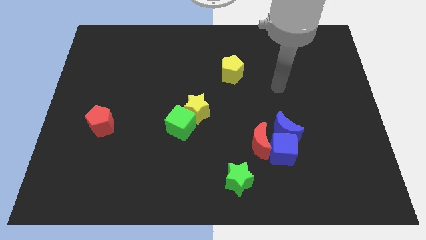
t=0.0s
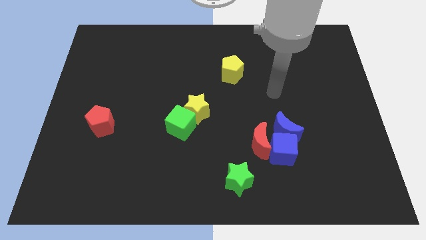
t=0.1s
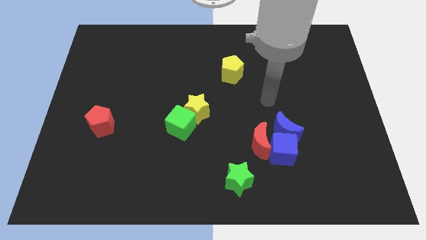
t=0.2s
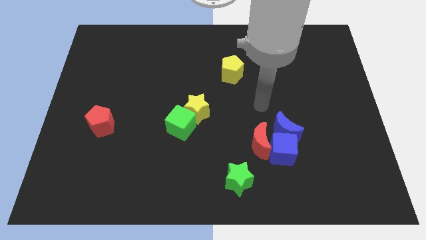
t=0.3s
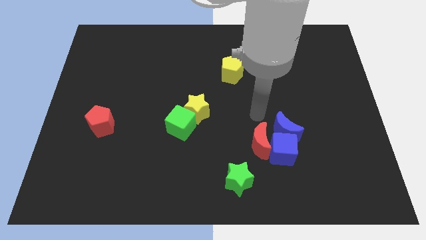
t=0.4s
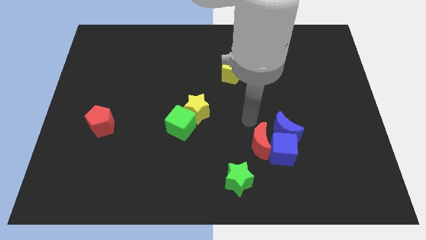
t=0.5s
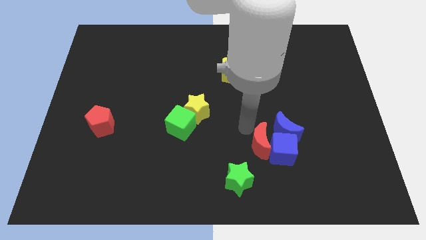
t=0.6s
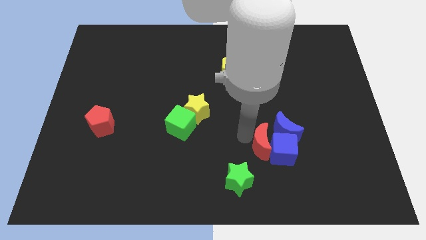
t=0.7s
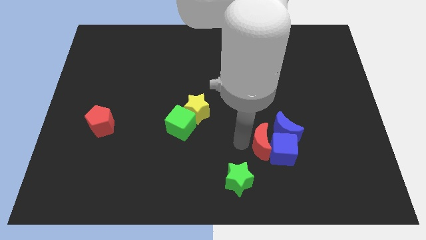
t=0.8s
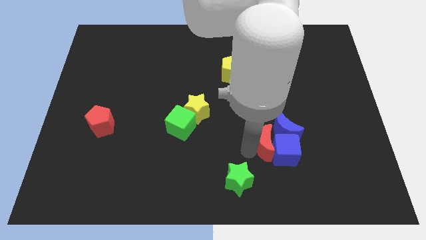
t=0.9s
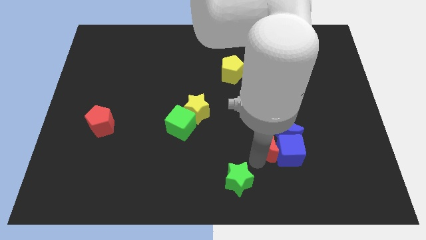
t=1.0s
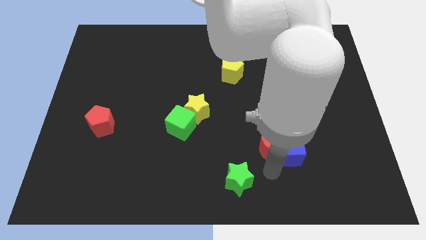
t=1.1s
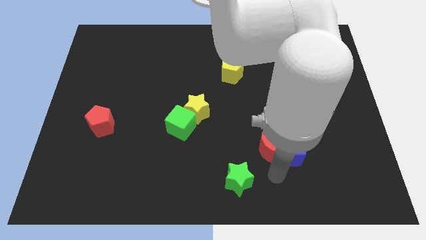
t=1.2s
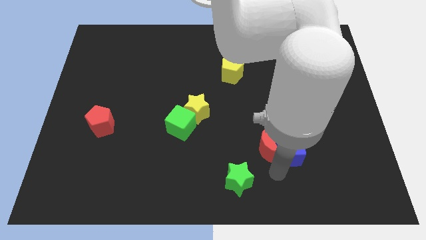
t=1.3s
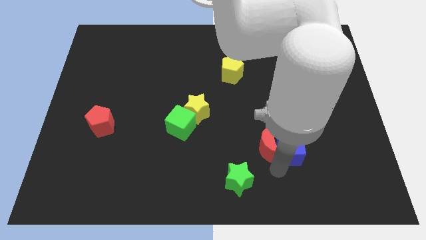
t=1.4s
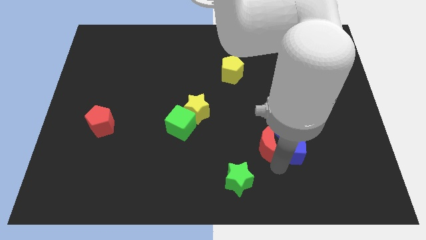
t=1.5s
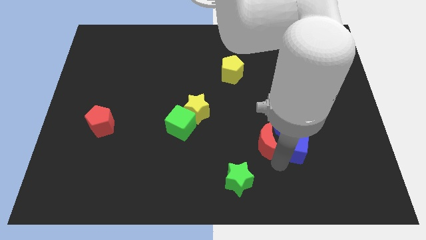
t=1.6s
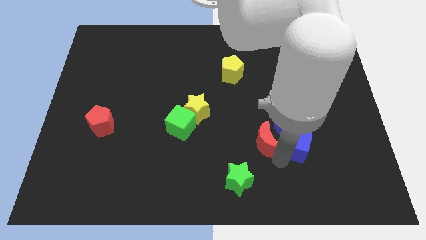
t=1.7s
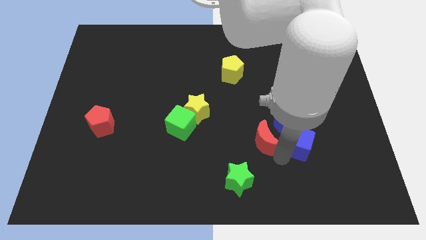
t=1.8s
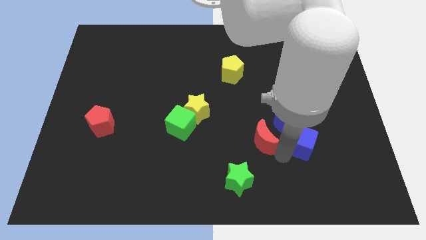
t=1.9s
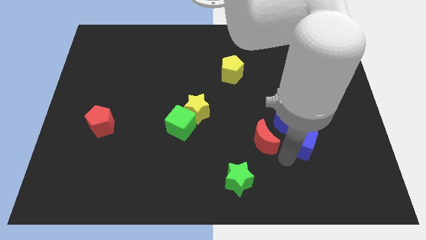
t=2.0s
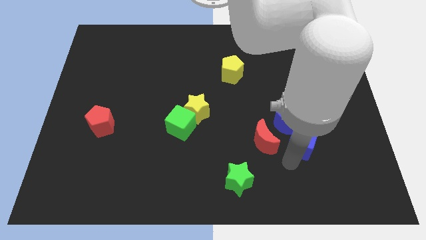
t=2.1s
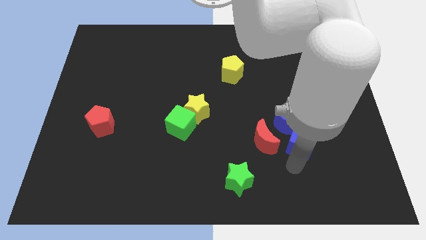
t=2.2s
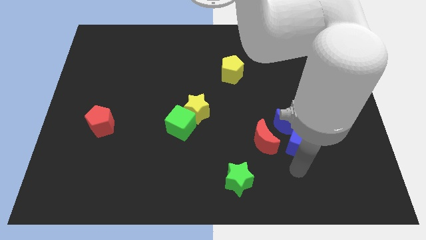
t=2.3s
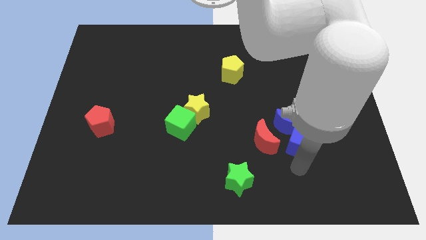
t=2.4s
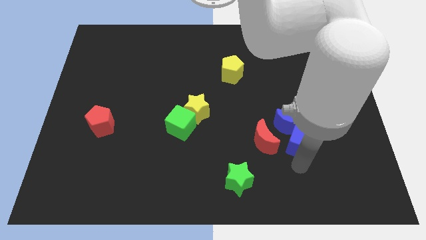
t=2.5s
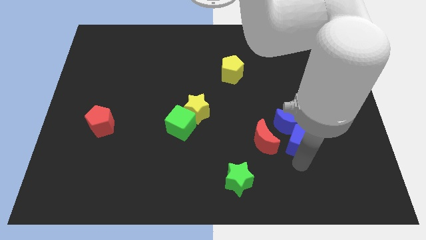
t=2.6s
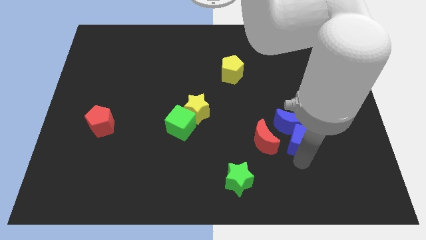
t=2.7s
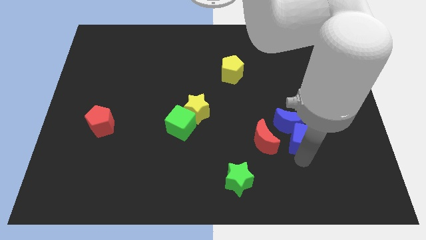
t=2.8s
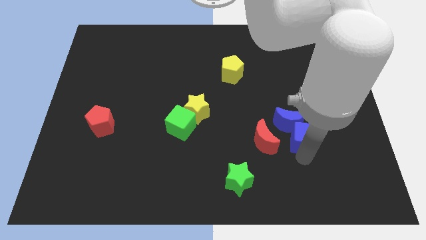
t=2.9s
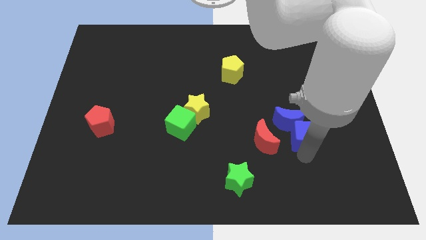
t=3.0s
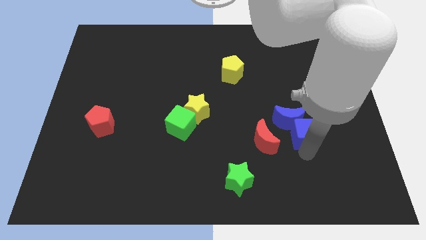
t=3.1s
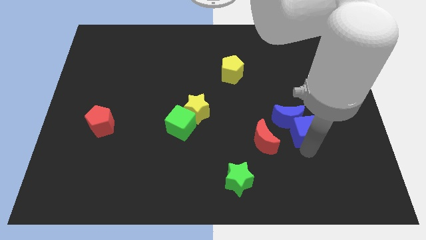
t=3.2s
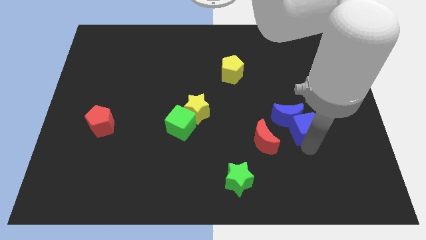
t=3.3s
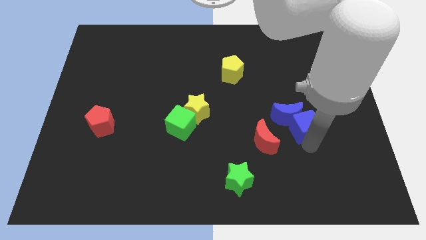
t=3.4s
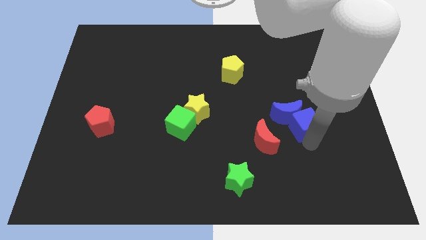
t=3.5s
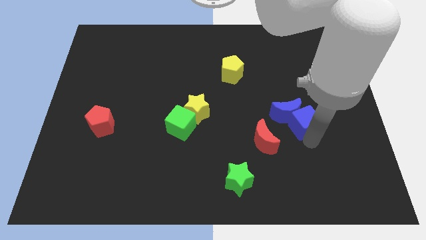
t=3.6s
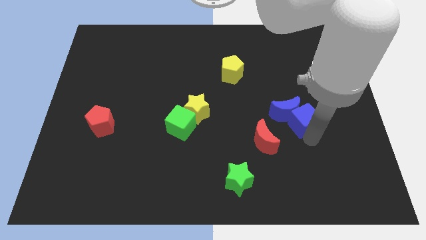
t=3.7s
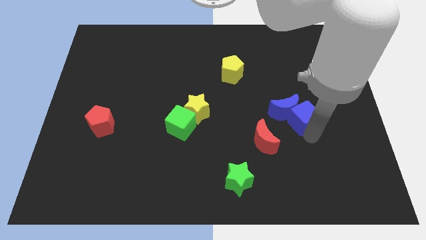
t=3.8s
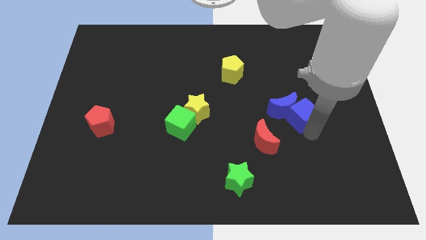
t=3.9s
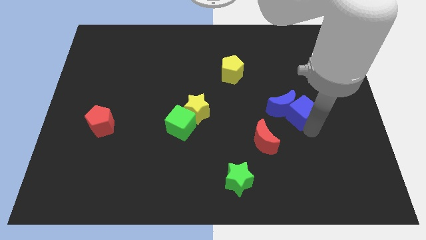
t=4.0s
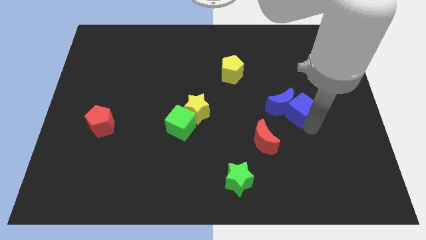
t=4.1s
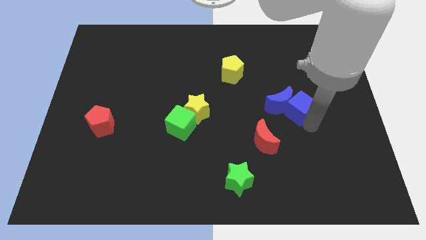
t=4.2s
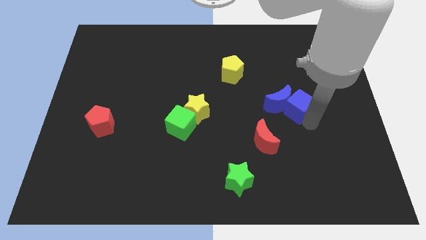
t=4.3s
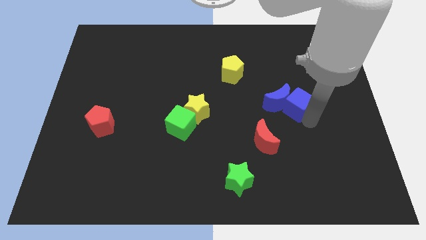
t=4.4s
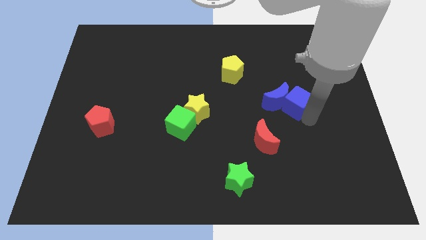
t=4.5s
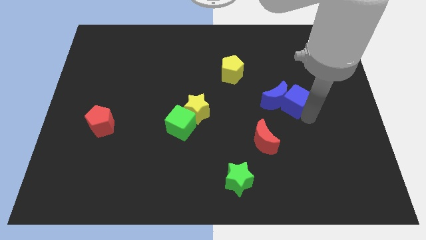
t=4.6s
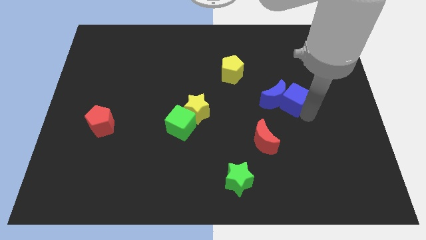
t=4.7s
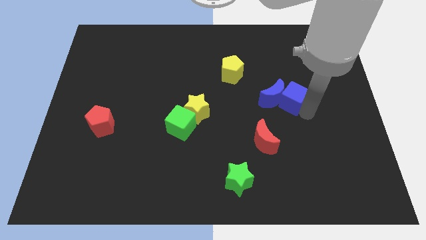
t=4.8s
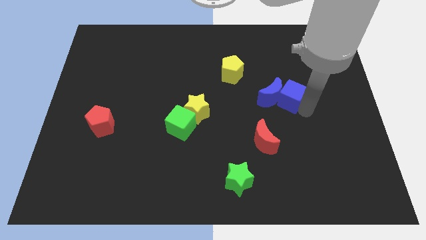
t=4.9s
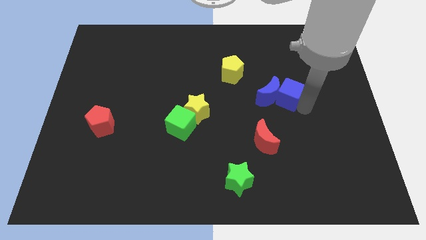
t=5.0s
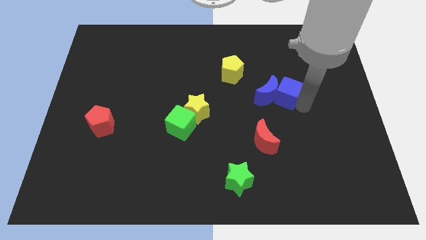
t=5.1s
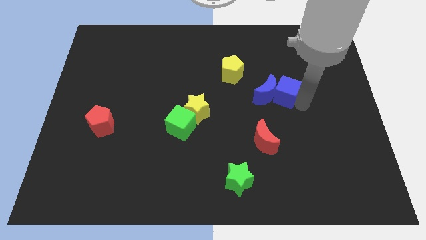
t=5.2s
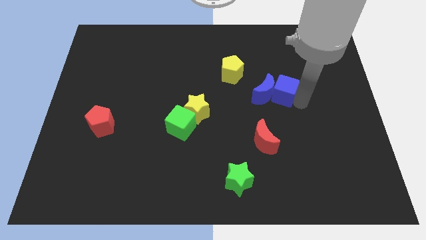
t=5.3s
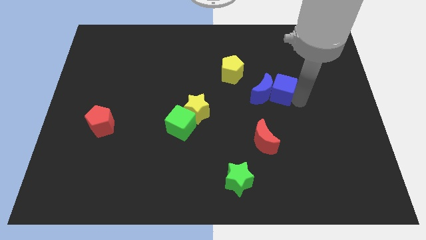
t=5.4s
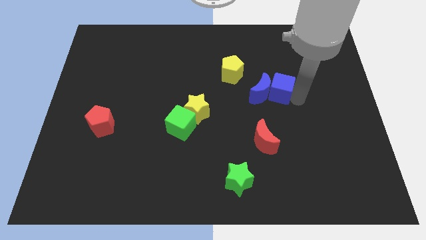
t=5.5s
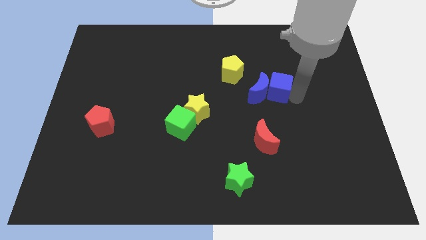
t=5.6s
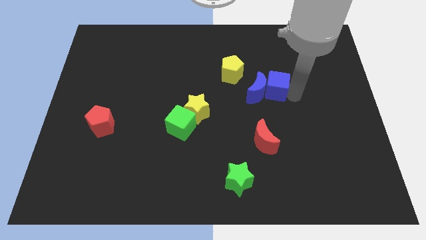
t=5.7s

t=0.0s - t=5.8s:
push the blue cube to the bottom right of the yellow pentagon

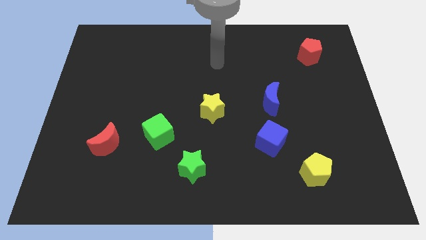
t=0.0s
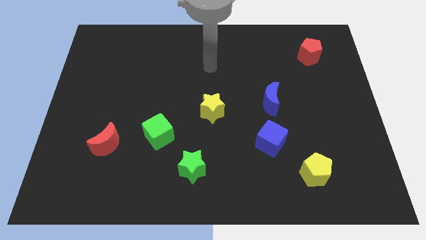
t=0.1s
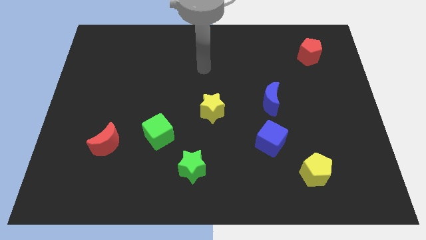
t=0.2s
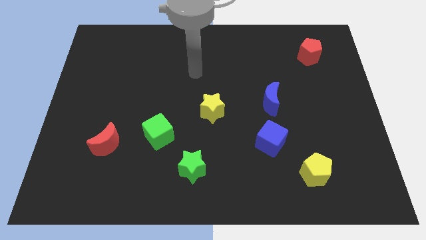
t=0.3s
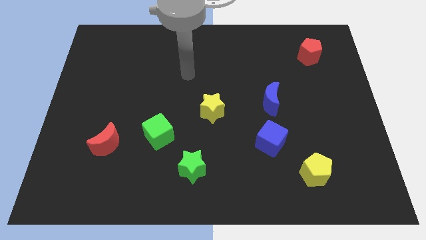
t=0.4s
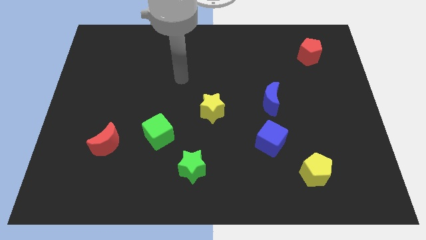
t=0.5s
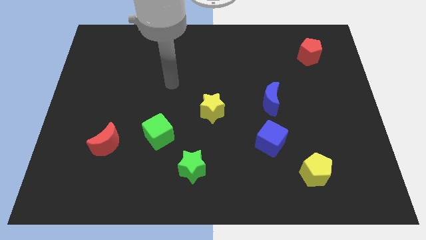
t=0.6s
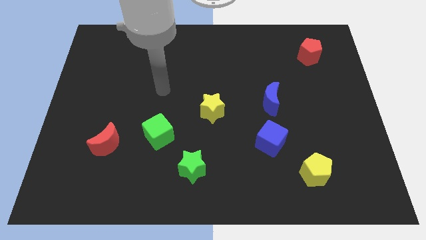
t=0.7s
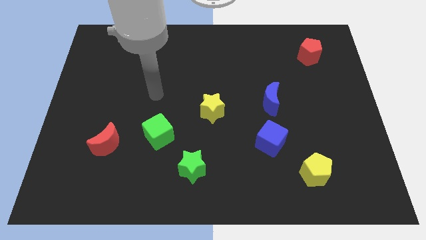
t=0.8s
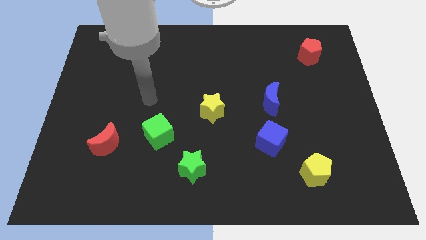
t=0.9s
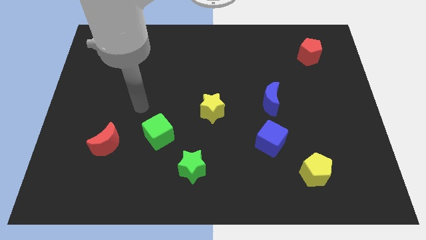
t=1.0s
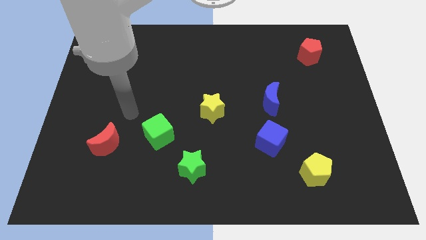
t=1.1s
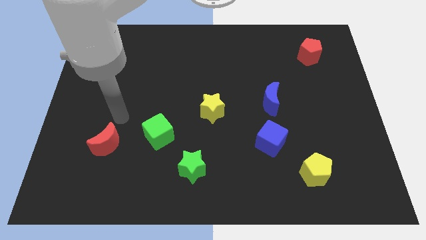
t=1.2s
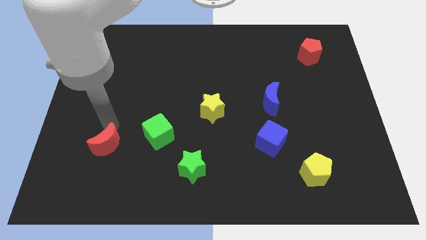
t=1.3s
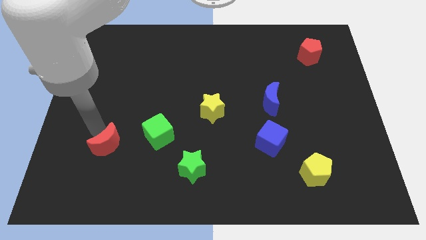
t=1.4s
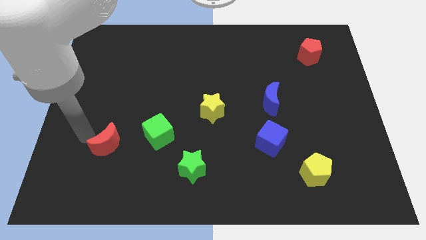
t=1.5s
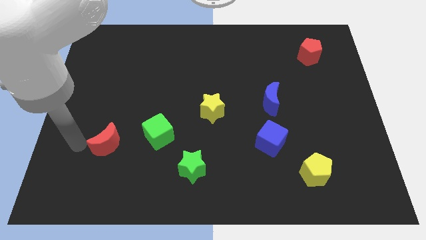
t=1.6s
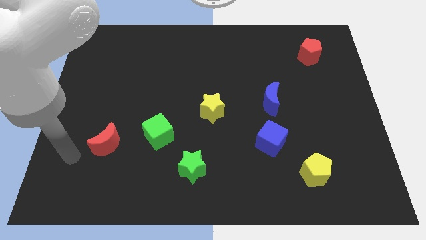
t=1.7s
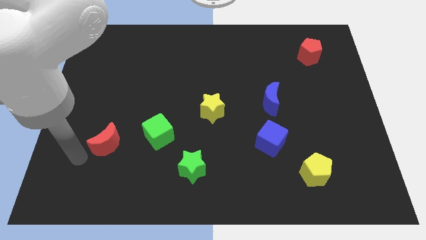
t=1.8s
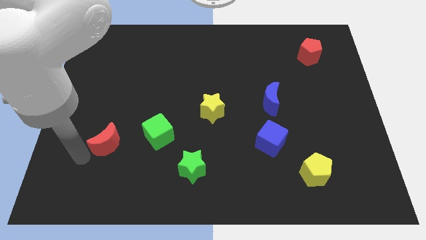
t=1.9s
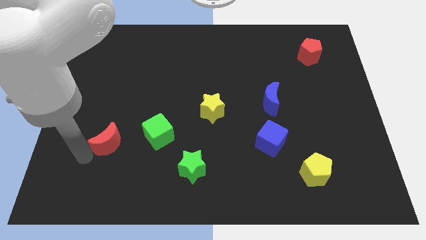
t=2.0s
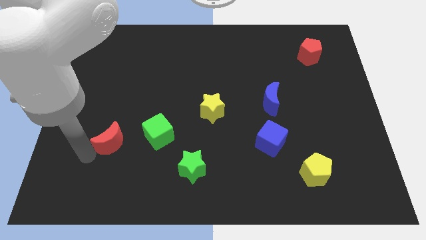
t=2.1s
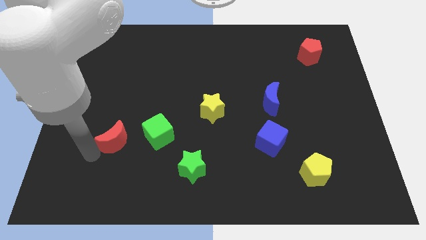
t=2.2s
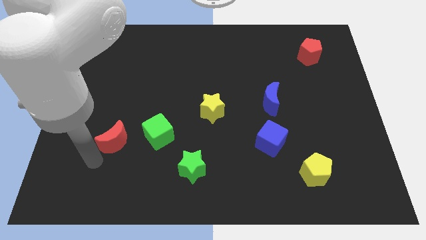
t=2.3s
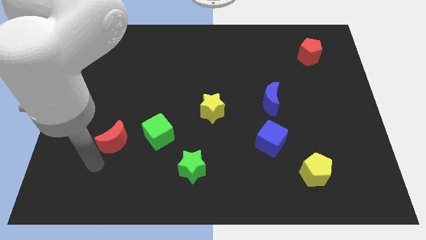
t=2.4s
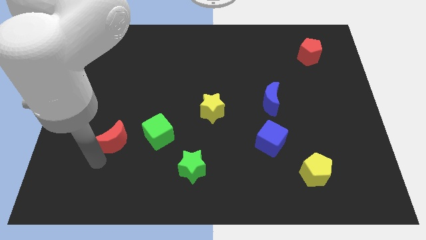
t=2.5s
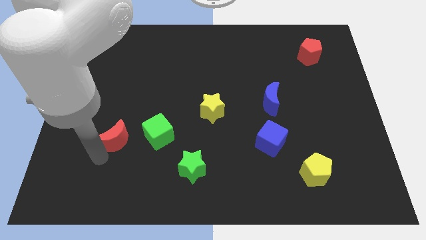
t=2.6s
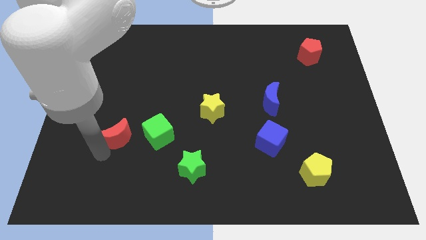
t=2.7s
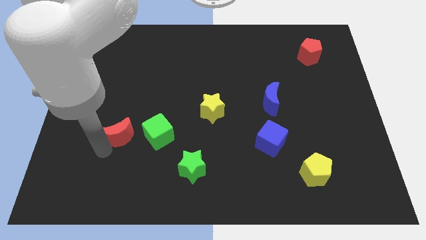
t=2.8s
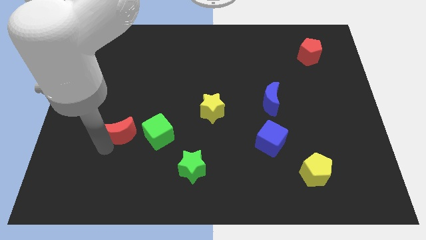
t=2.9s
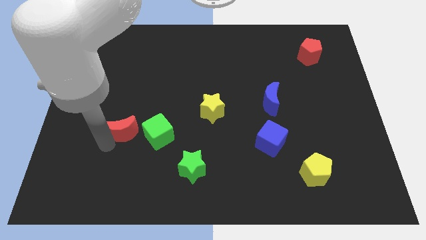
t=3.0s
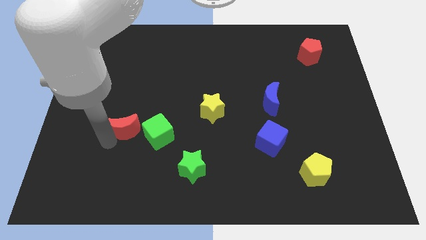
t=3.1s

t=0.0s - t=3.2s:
put the red moon to the top left side of the green cube
